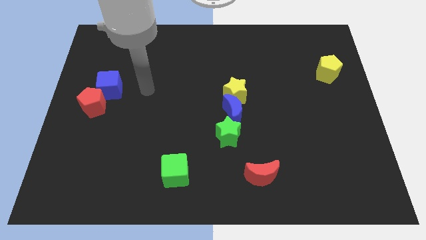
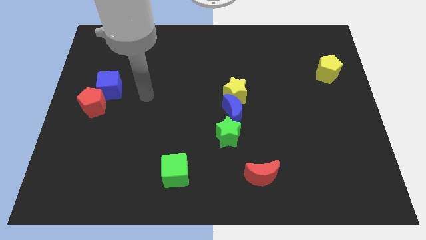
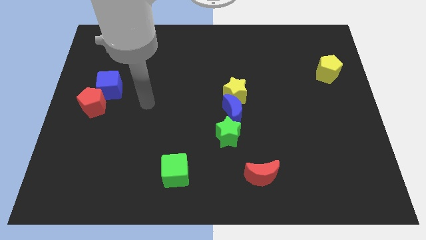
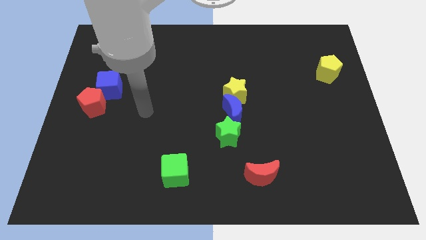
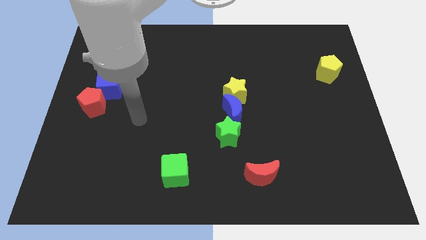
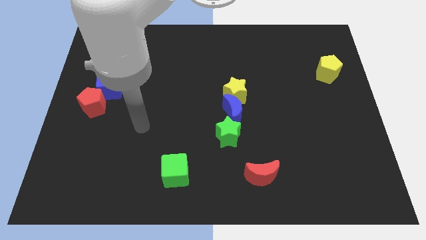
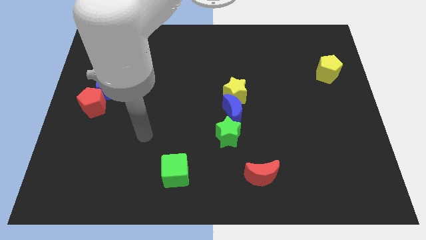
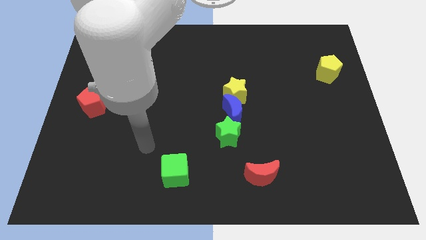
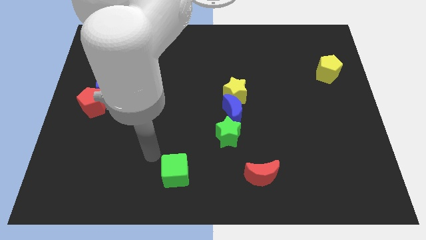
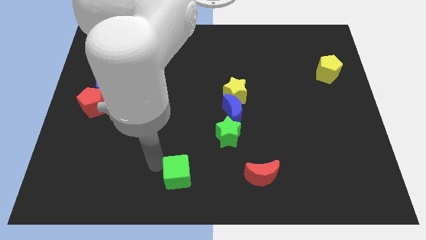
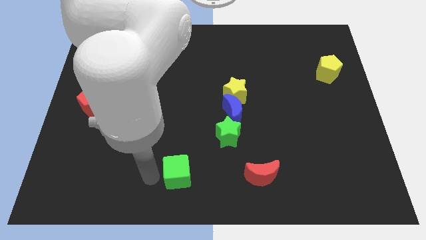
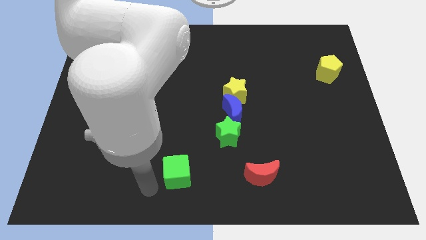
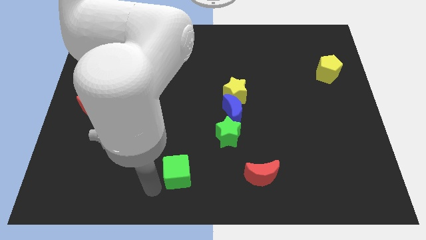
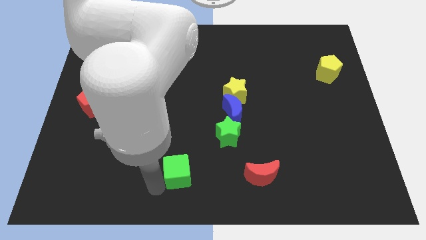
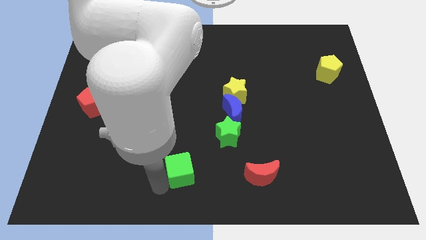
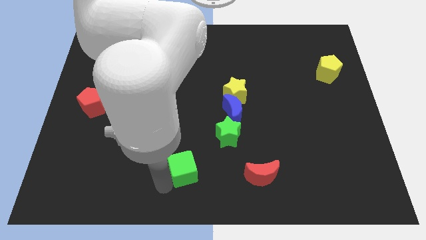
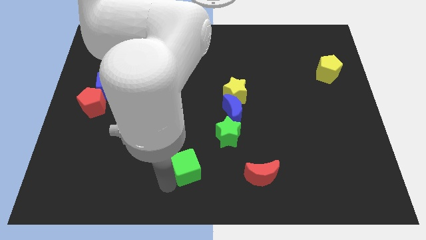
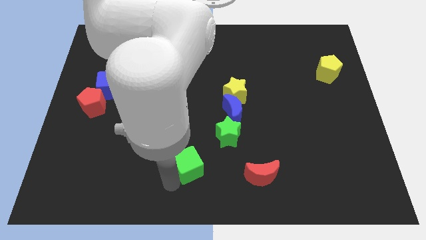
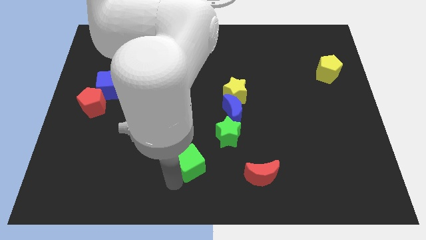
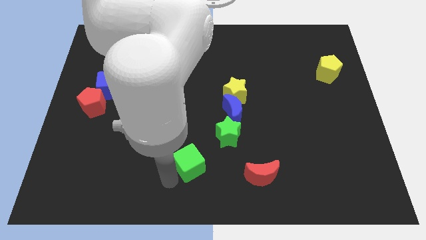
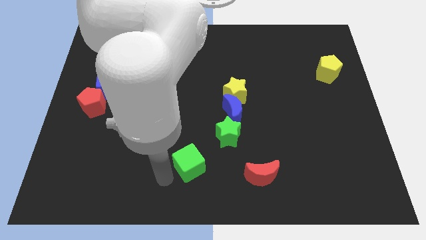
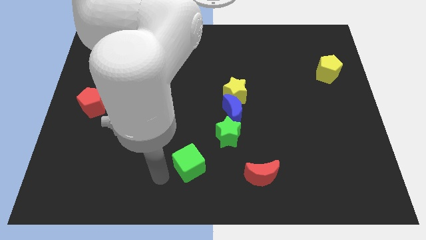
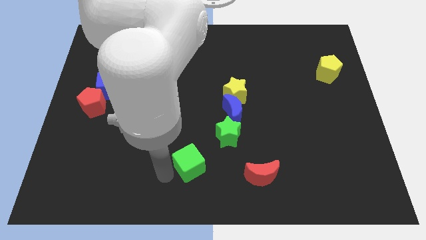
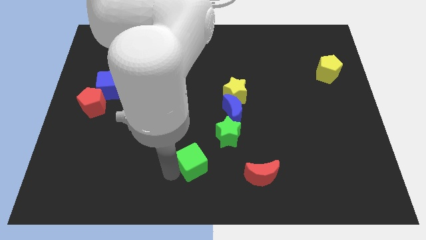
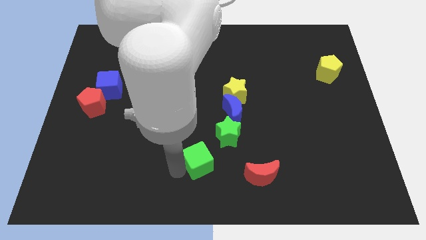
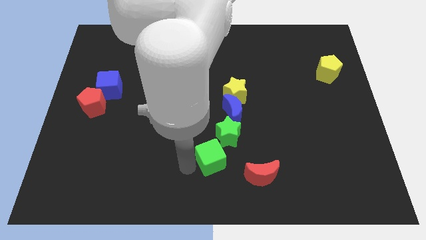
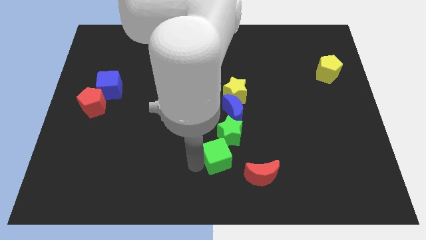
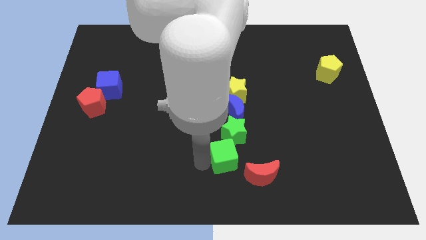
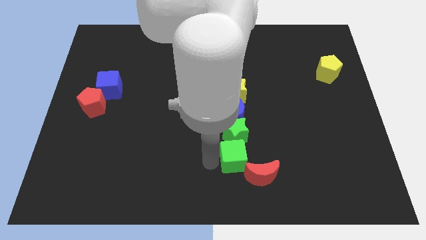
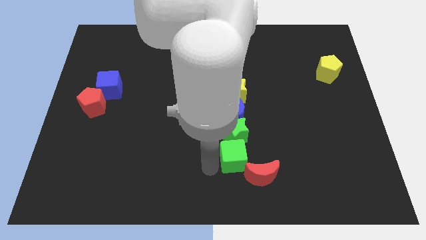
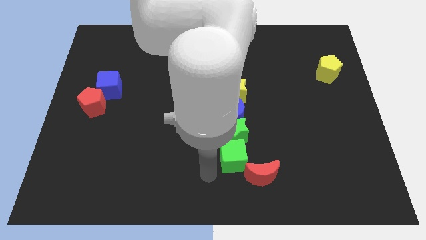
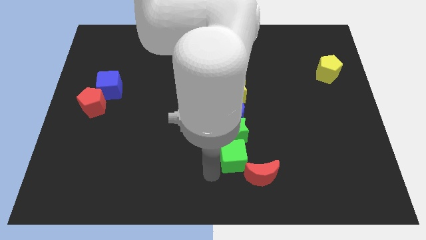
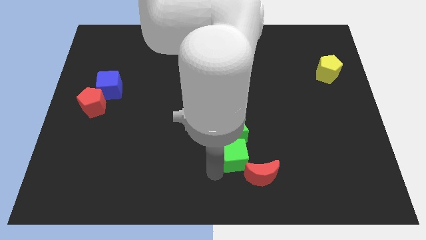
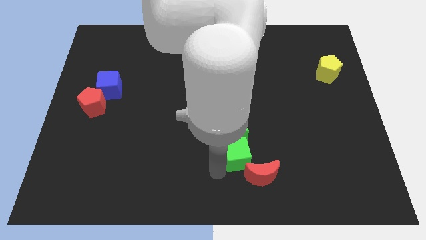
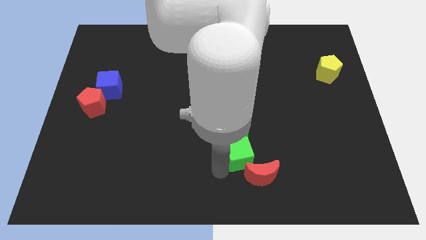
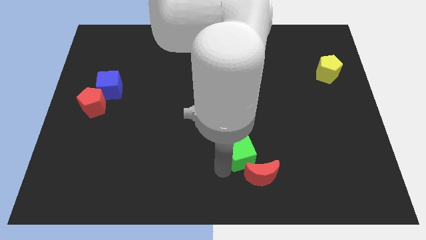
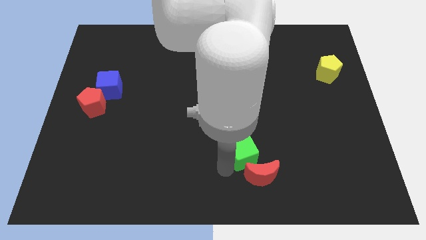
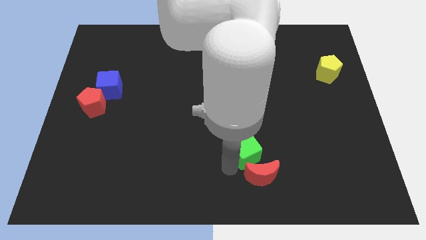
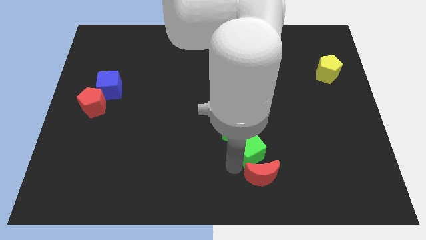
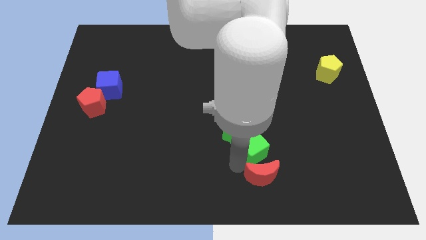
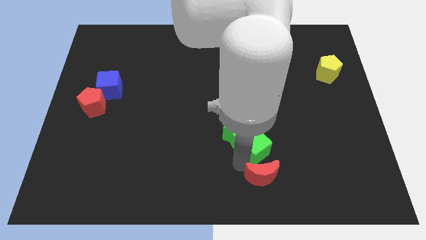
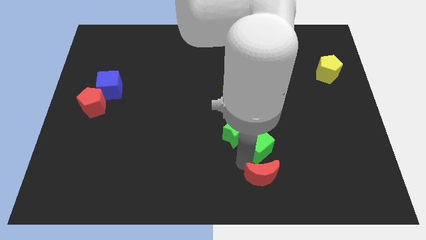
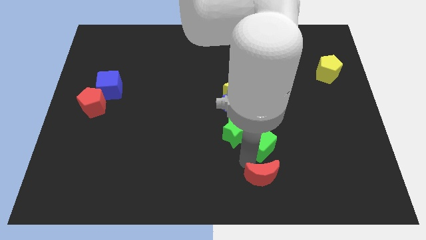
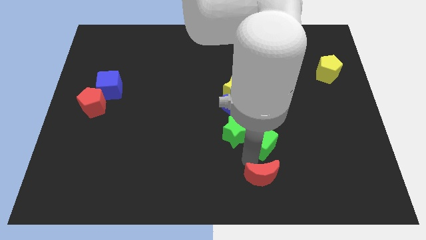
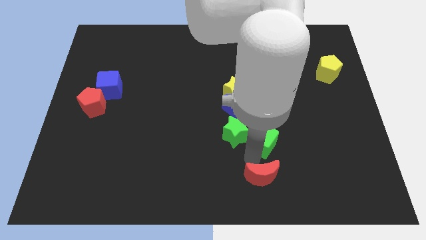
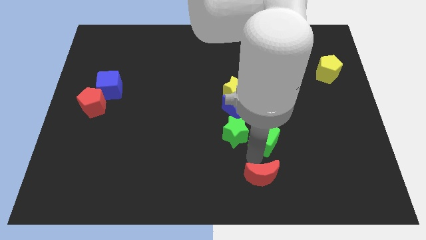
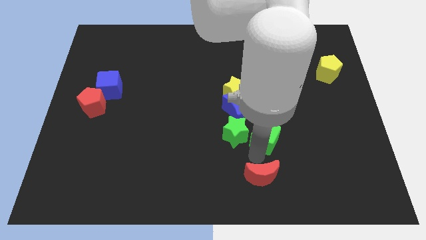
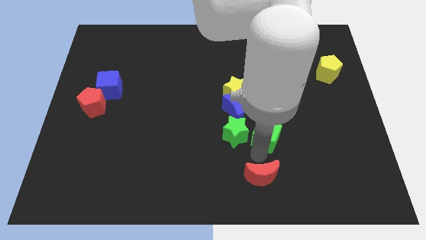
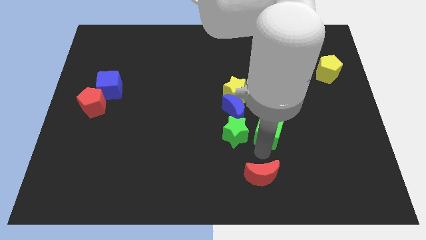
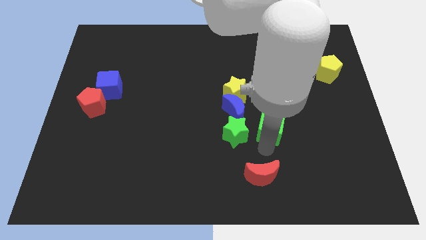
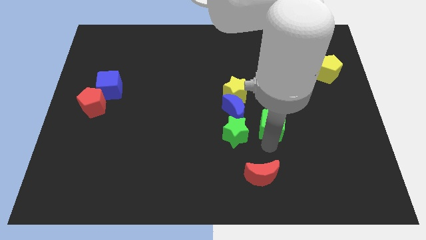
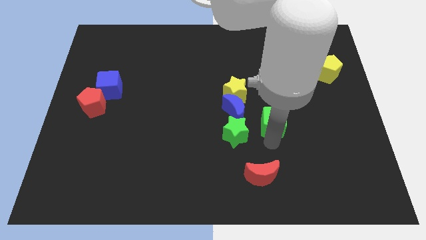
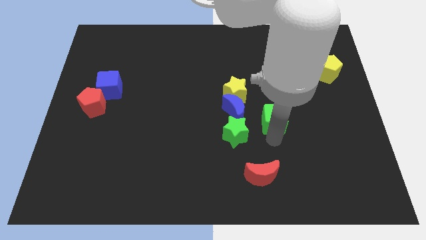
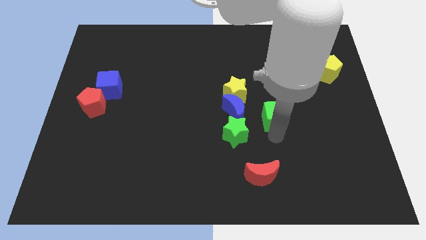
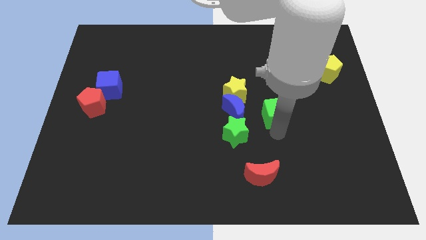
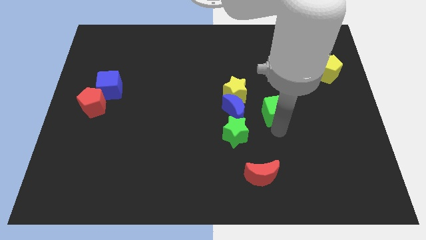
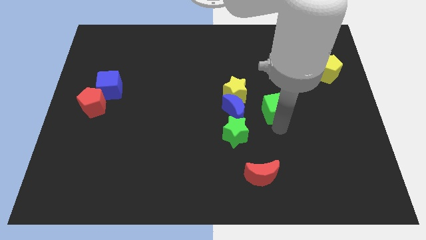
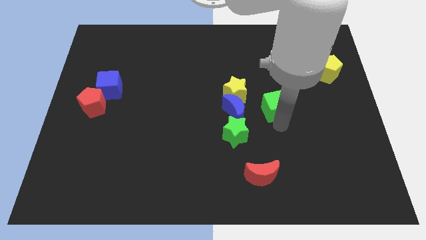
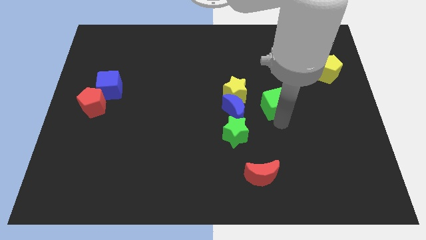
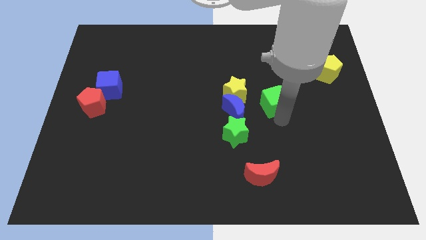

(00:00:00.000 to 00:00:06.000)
move the green cube to the top right of the blue moon

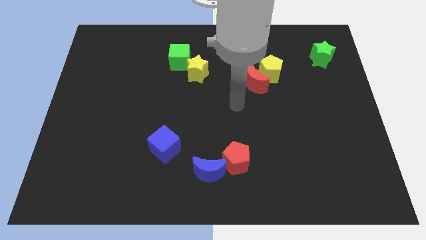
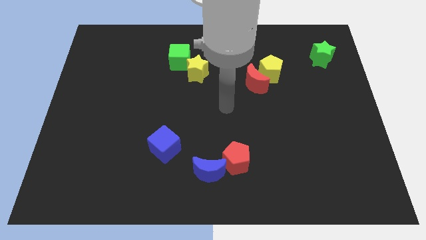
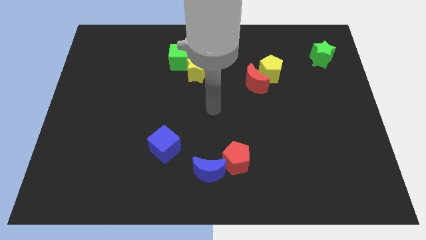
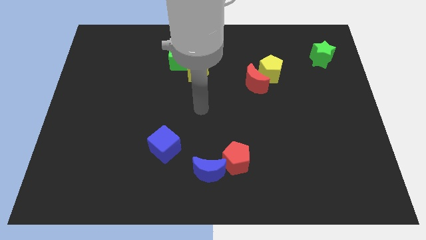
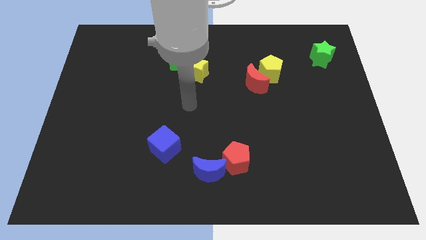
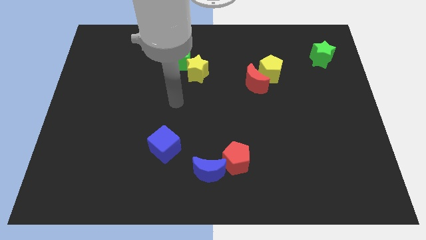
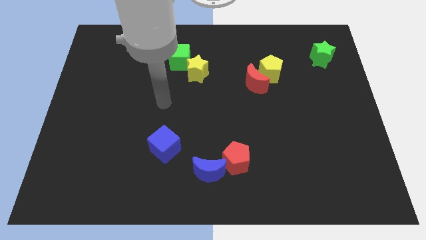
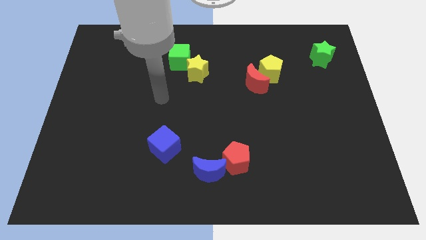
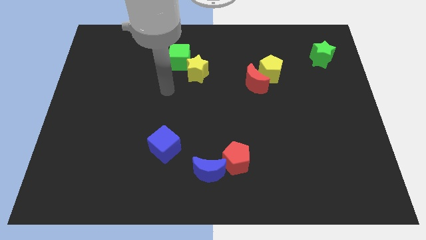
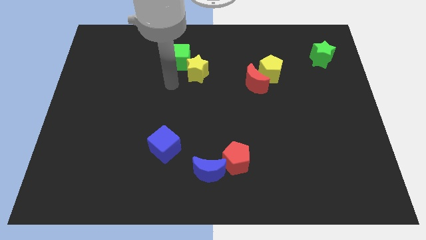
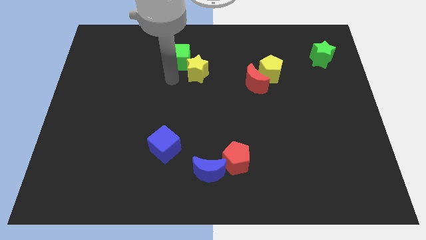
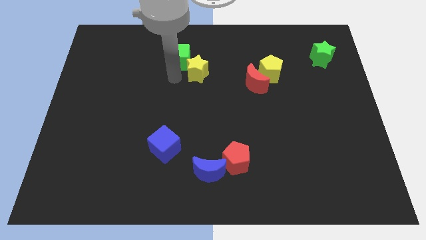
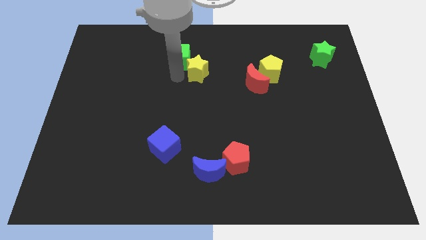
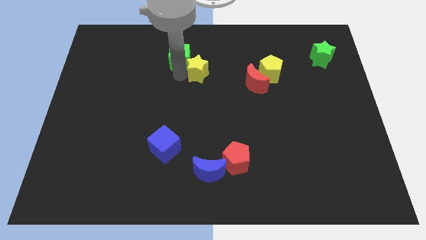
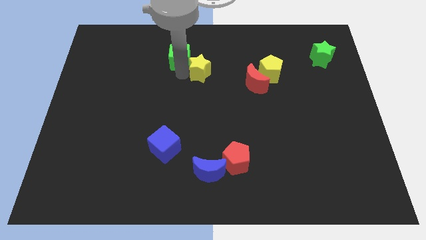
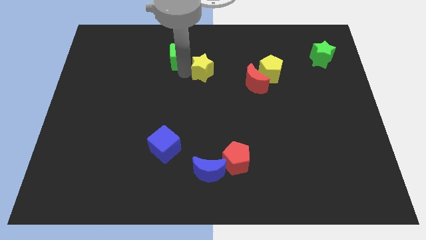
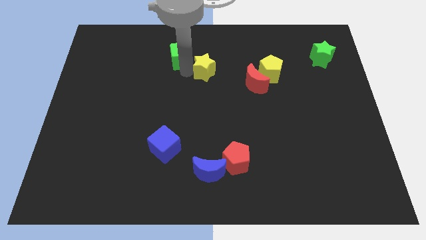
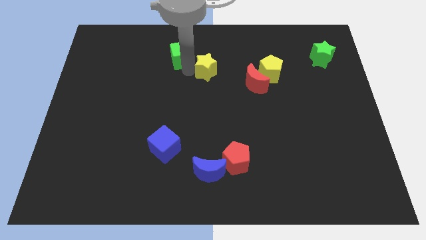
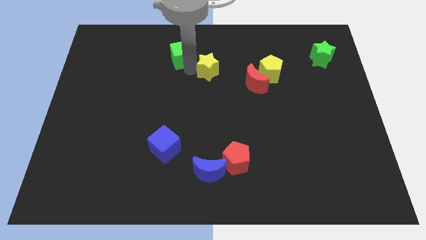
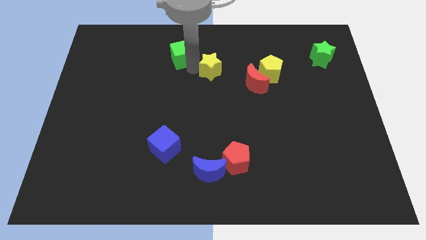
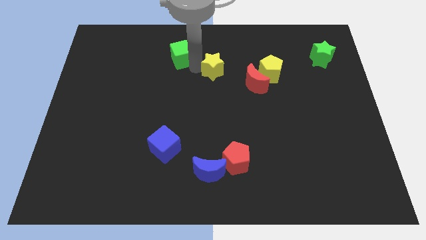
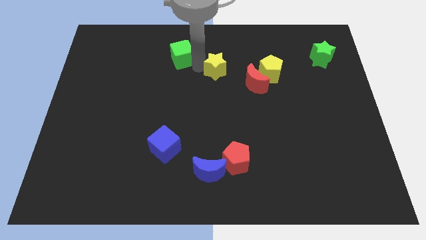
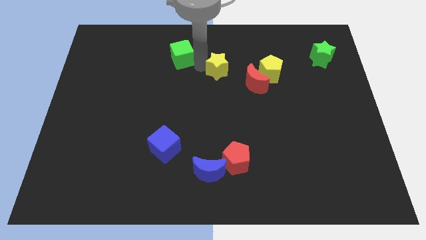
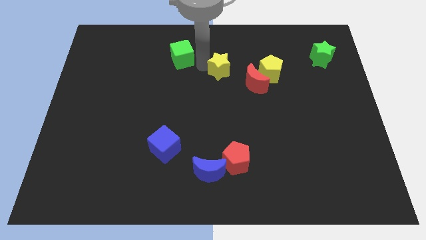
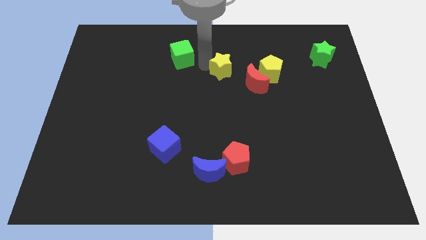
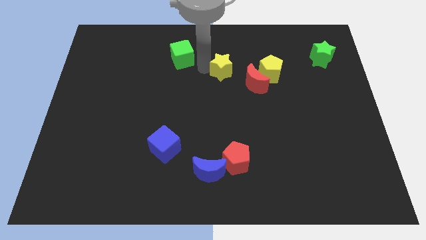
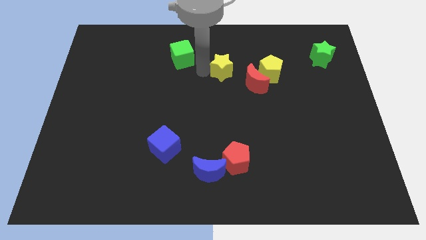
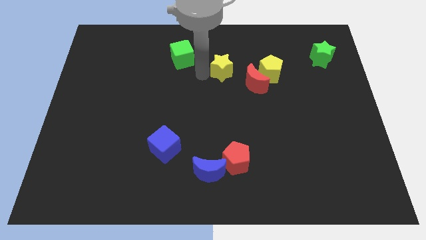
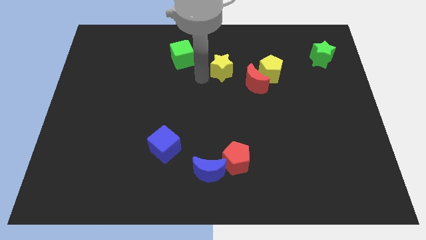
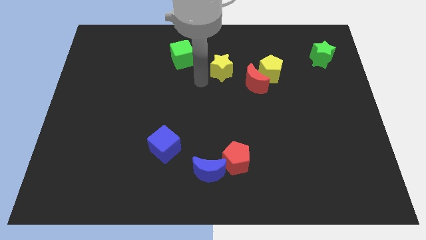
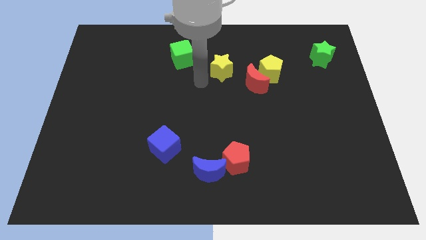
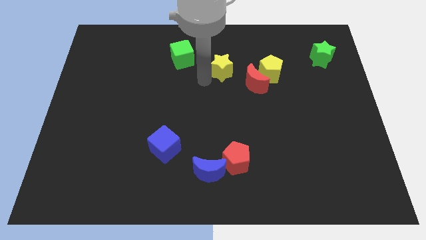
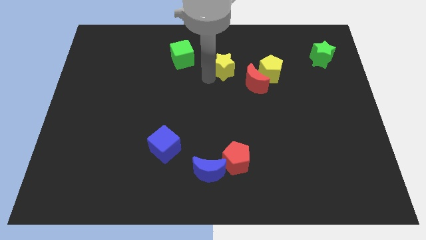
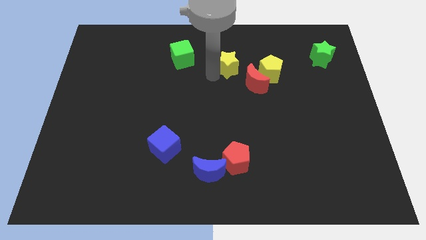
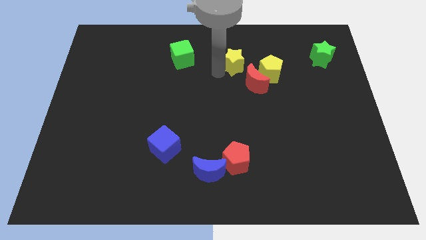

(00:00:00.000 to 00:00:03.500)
put the yellow star to the top left side of the yellow pentagon
